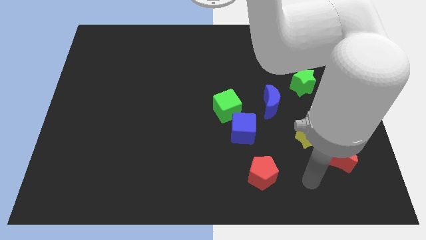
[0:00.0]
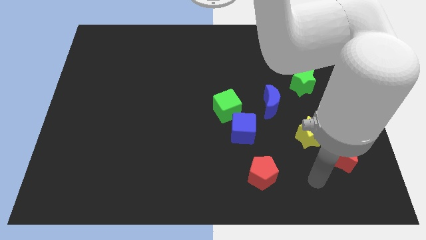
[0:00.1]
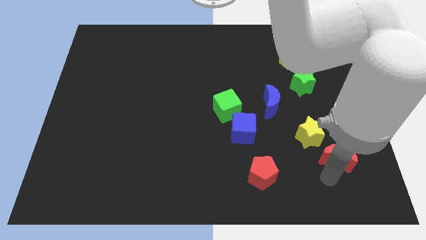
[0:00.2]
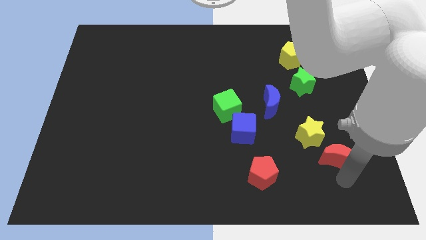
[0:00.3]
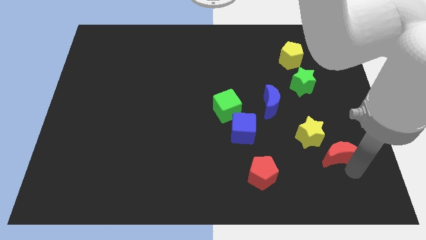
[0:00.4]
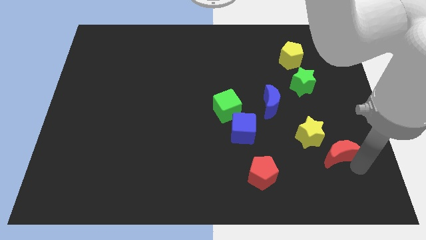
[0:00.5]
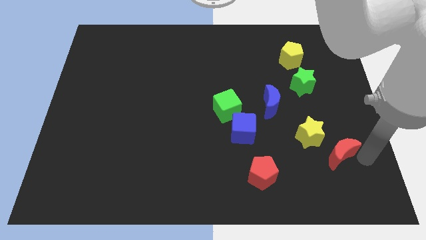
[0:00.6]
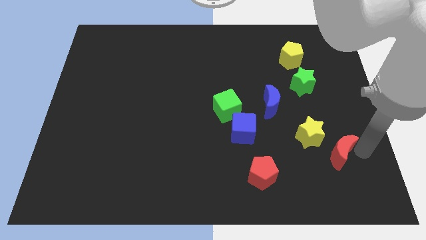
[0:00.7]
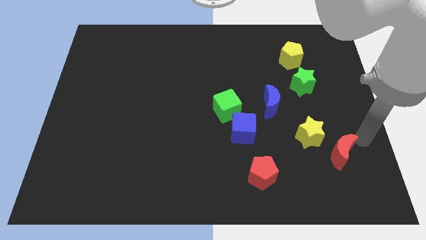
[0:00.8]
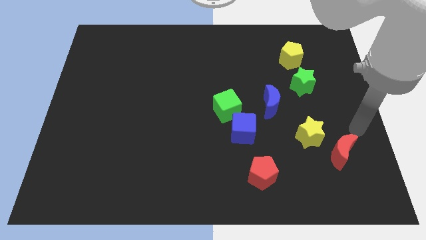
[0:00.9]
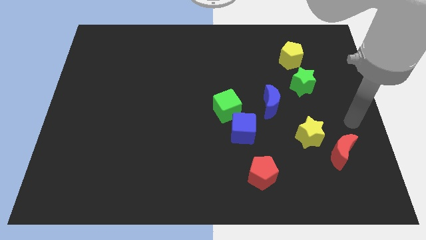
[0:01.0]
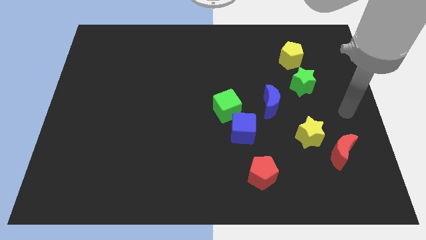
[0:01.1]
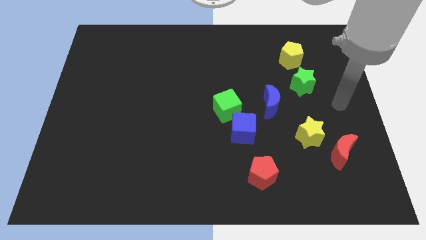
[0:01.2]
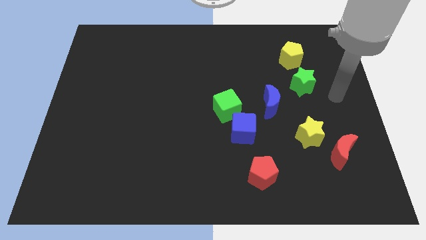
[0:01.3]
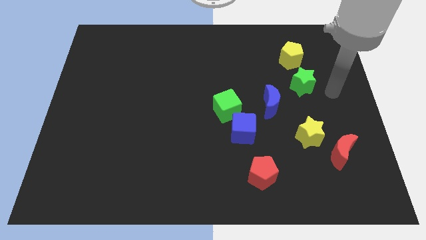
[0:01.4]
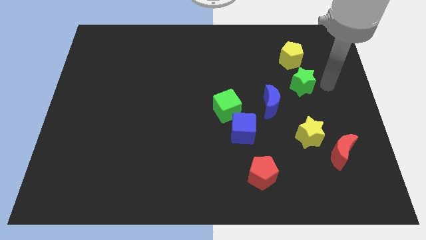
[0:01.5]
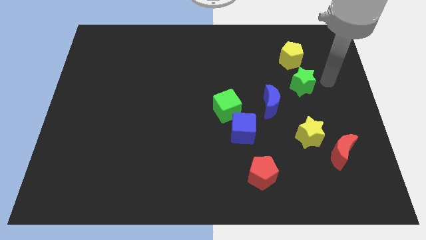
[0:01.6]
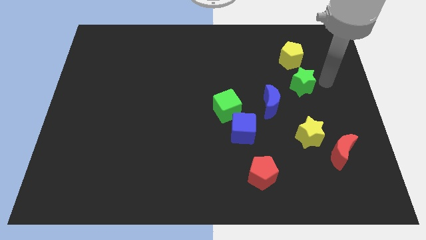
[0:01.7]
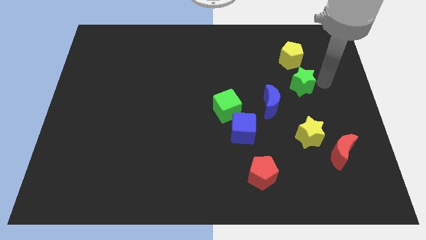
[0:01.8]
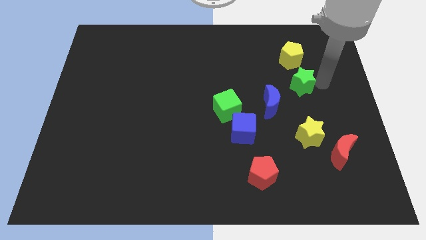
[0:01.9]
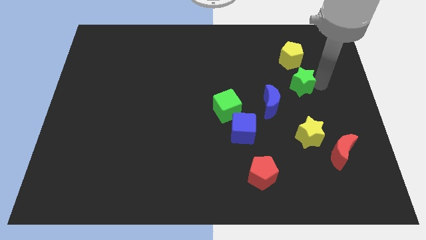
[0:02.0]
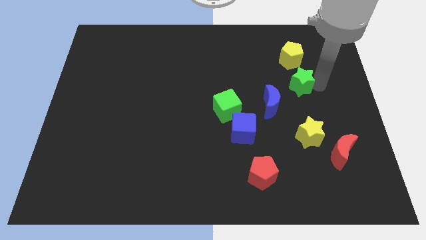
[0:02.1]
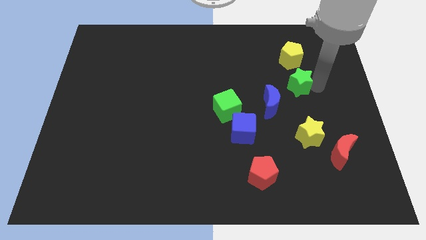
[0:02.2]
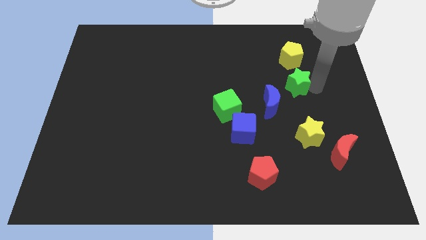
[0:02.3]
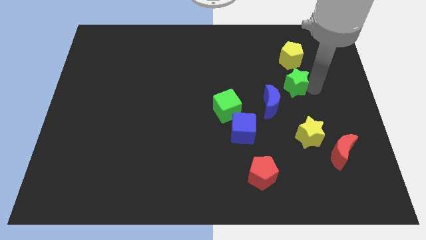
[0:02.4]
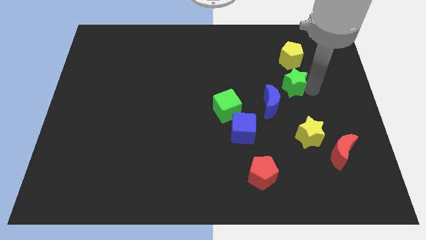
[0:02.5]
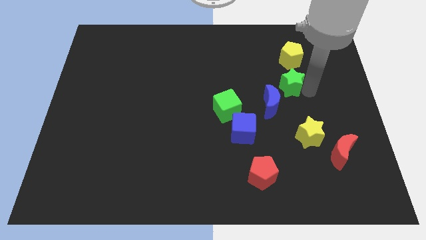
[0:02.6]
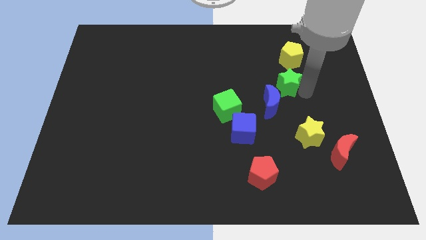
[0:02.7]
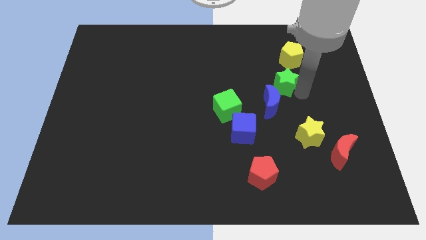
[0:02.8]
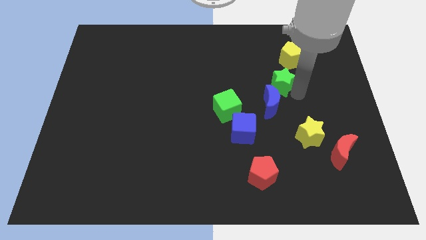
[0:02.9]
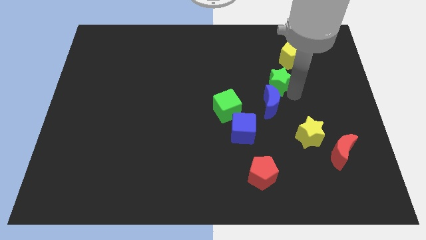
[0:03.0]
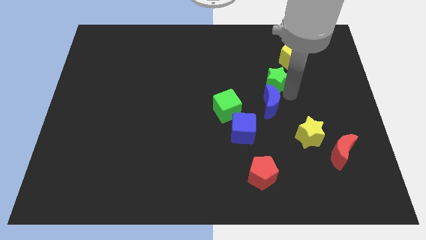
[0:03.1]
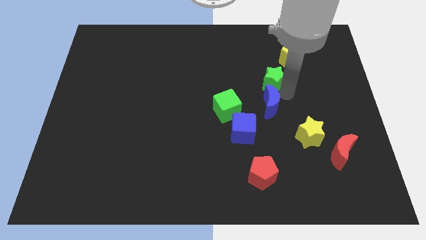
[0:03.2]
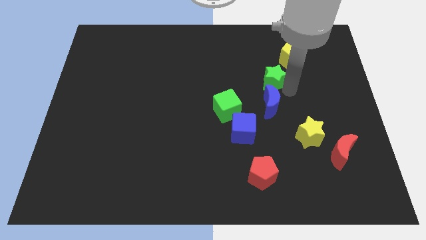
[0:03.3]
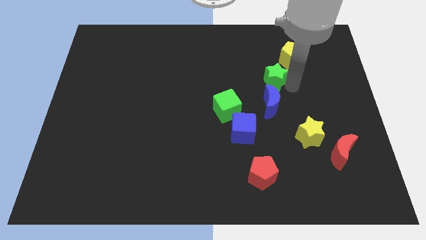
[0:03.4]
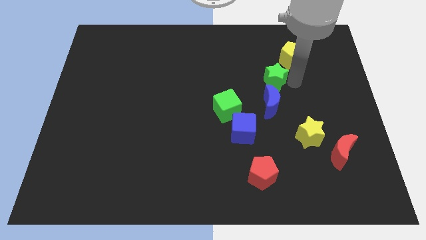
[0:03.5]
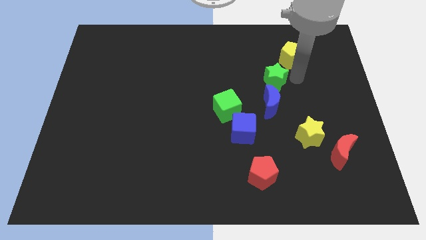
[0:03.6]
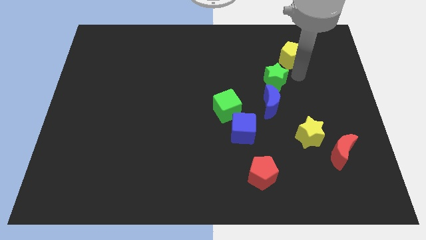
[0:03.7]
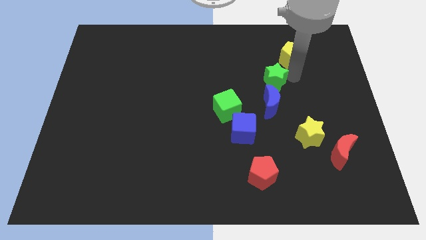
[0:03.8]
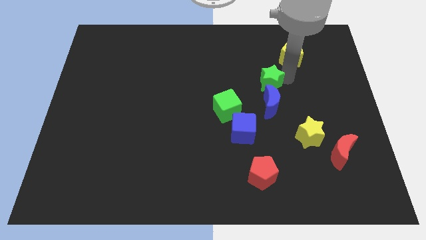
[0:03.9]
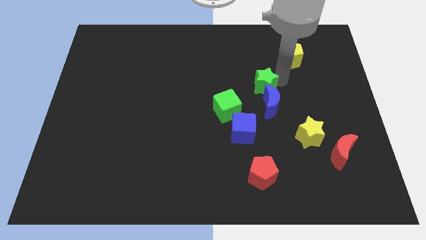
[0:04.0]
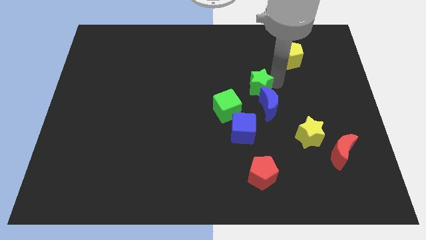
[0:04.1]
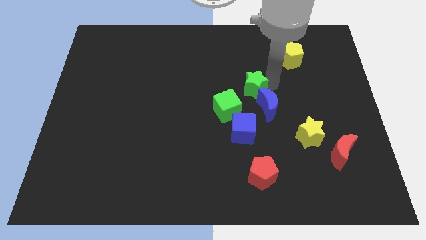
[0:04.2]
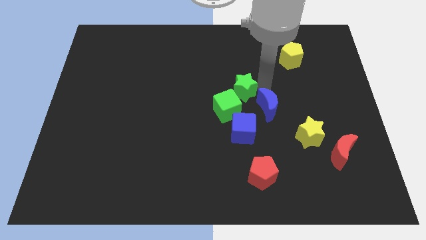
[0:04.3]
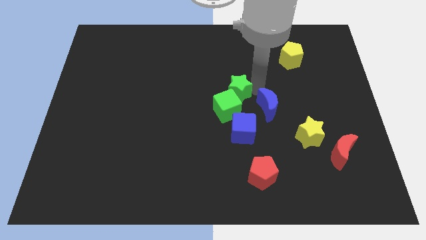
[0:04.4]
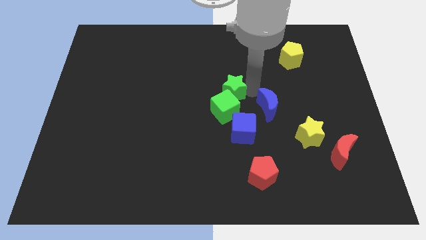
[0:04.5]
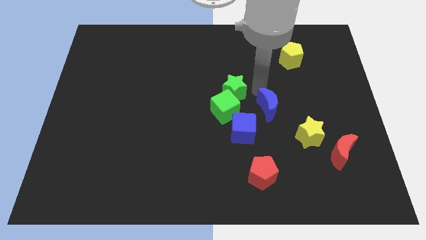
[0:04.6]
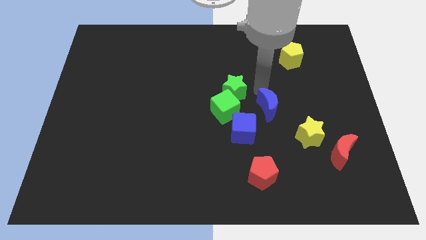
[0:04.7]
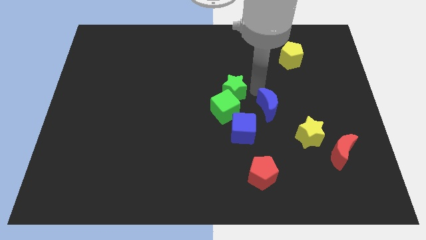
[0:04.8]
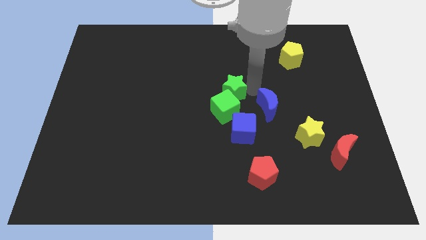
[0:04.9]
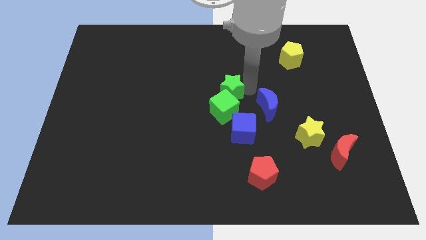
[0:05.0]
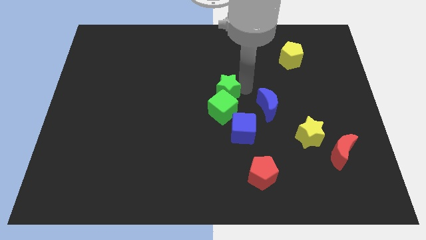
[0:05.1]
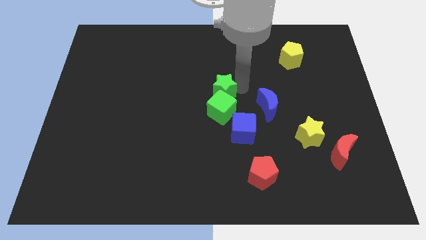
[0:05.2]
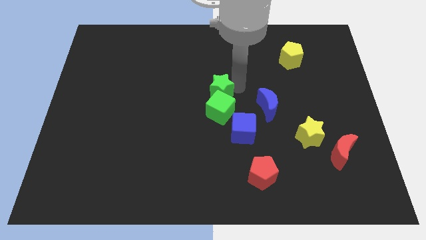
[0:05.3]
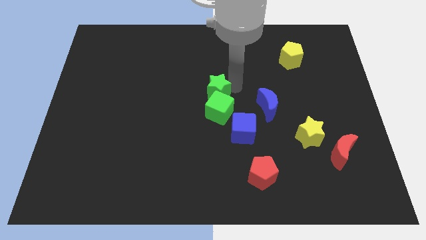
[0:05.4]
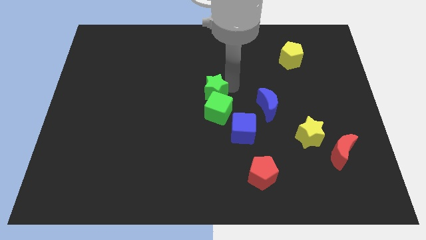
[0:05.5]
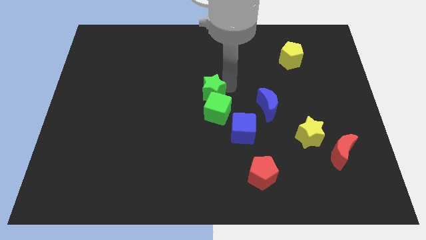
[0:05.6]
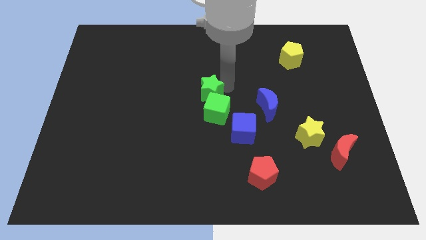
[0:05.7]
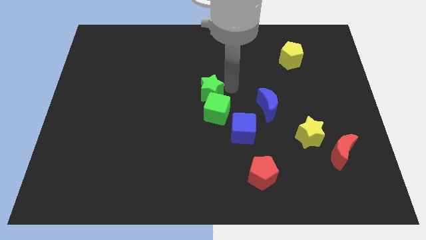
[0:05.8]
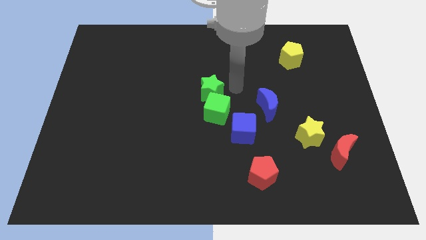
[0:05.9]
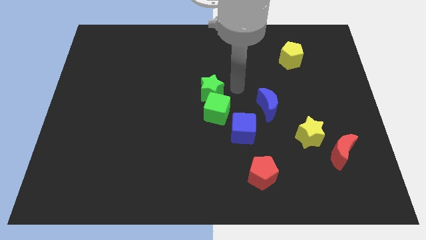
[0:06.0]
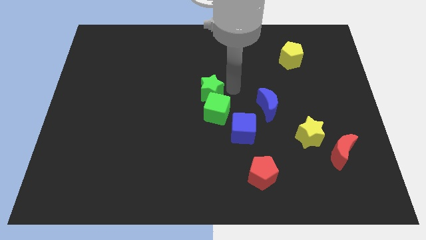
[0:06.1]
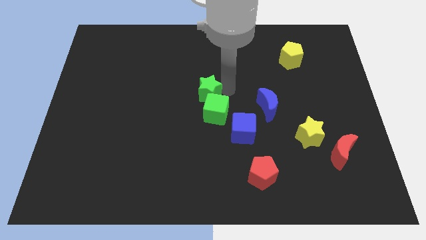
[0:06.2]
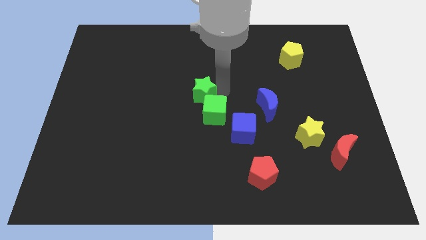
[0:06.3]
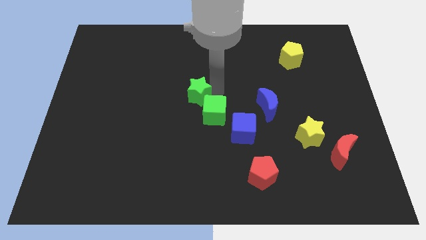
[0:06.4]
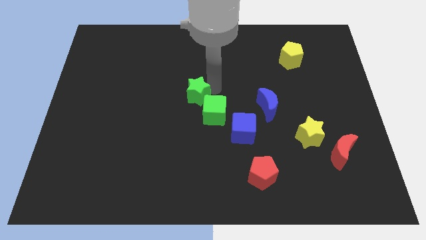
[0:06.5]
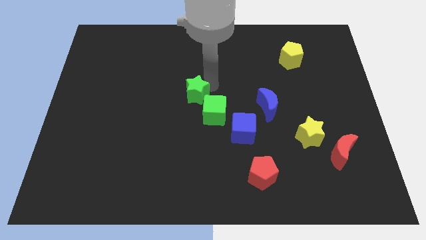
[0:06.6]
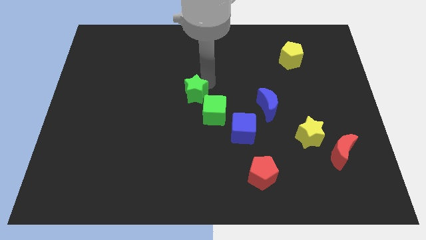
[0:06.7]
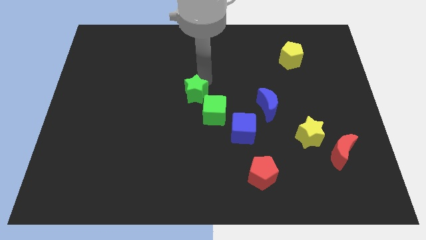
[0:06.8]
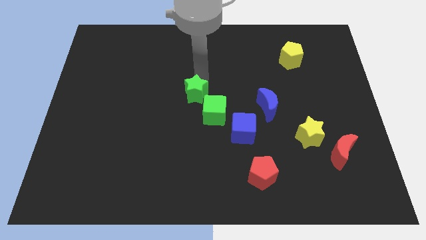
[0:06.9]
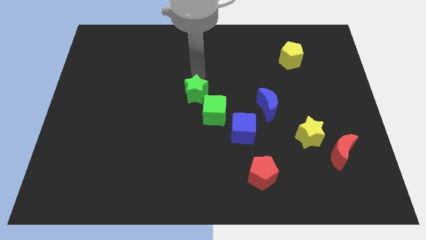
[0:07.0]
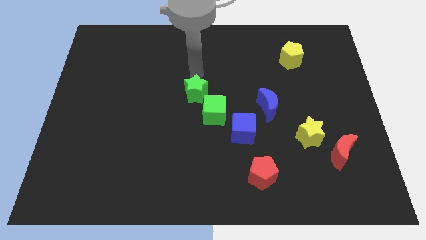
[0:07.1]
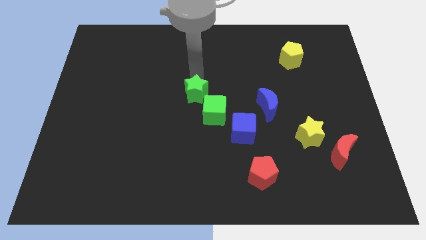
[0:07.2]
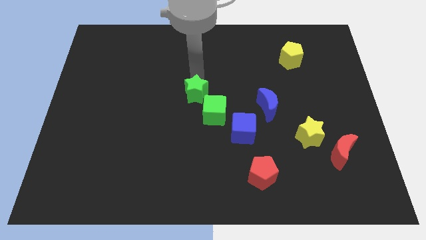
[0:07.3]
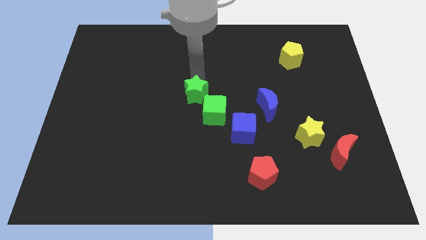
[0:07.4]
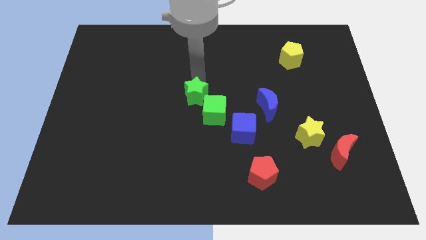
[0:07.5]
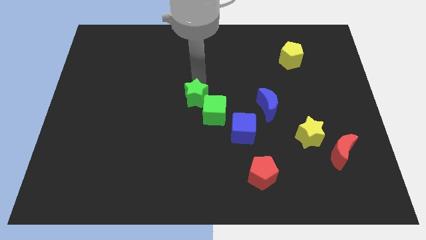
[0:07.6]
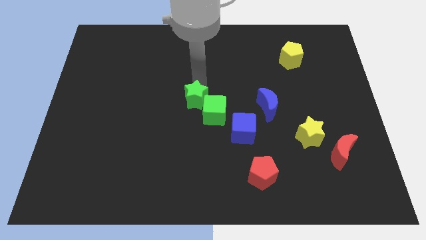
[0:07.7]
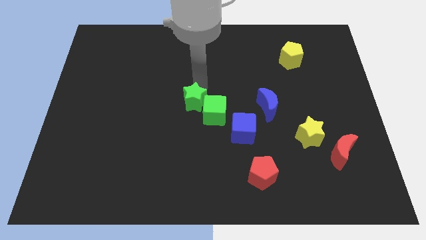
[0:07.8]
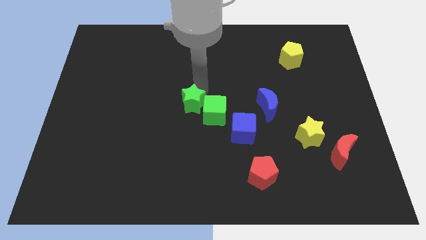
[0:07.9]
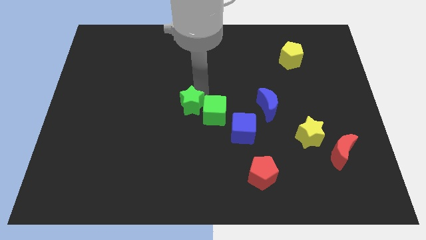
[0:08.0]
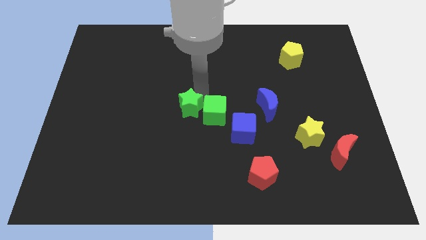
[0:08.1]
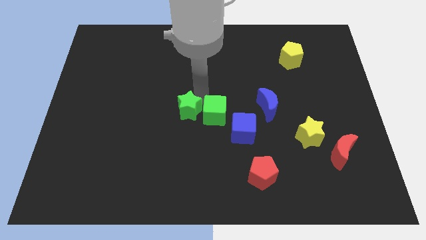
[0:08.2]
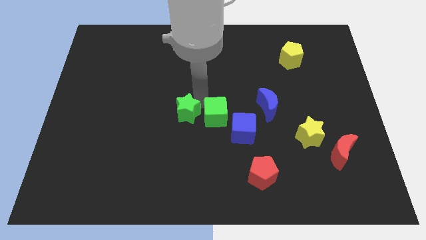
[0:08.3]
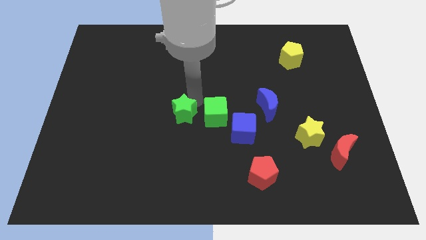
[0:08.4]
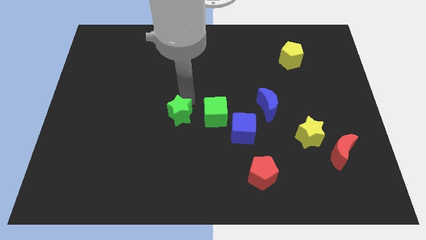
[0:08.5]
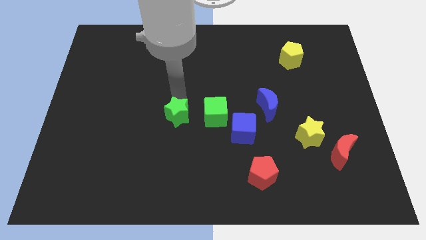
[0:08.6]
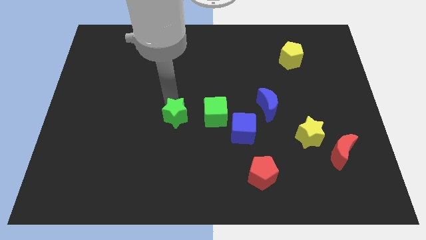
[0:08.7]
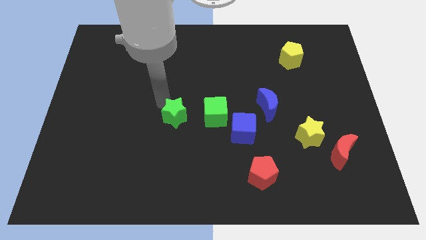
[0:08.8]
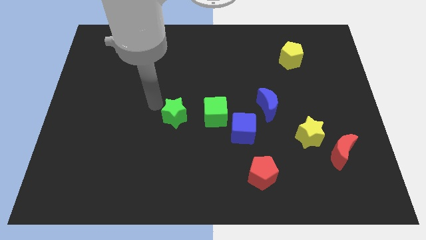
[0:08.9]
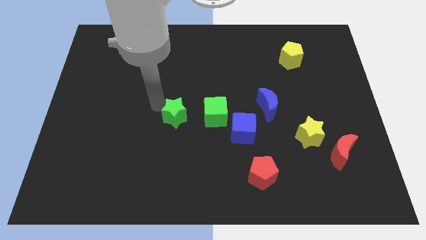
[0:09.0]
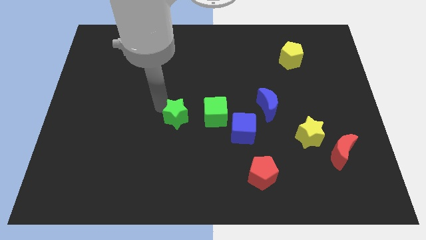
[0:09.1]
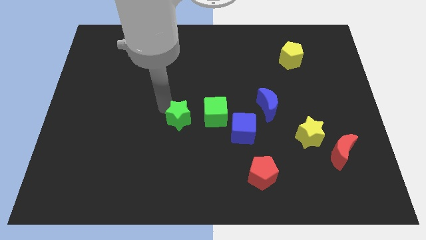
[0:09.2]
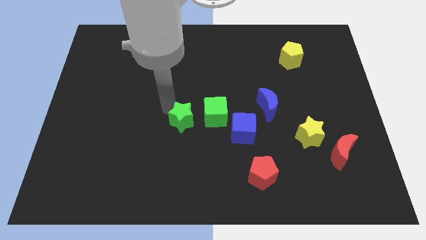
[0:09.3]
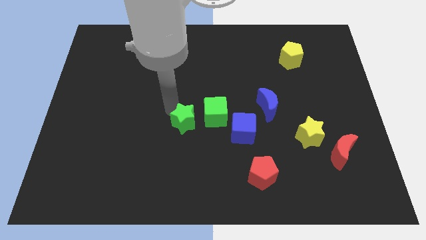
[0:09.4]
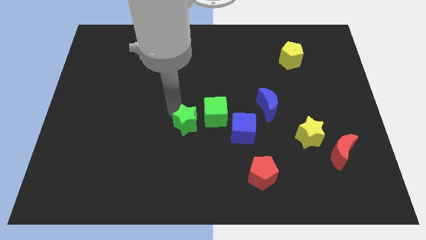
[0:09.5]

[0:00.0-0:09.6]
move the green star diagonally downwards and left
